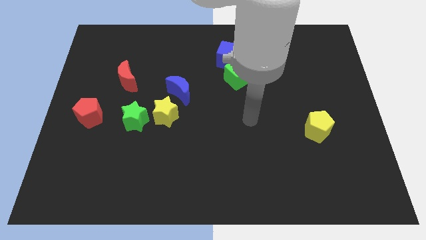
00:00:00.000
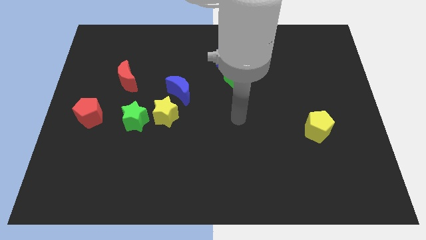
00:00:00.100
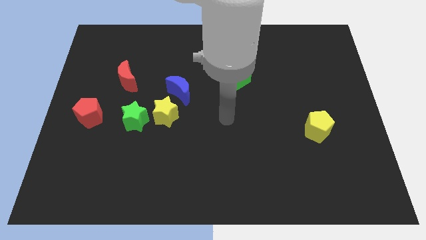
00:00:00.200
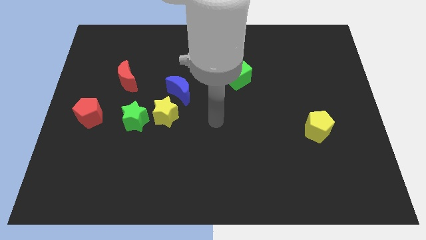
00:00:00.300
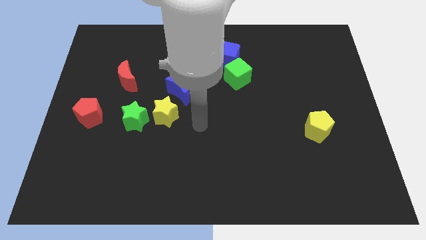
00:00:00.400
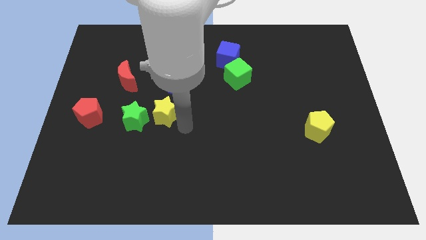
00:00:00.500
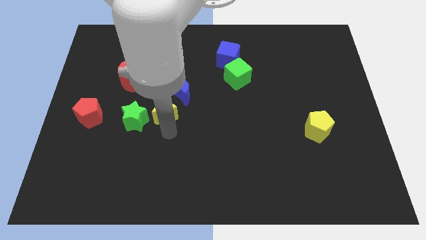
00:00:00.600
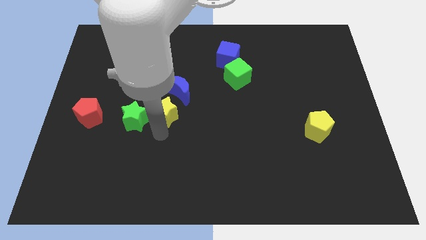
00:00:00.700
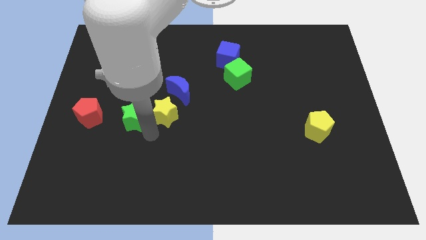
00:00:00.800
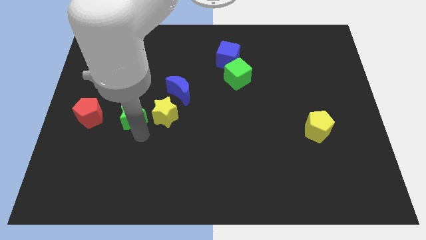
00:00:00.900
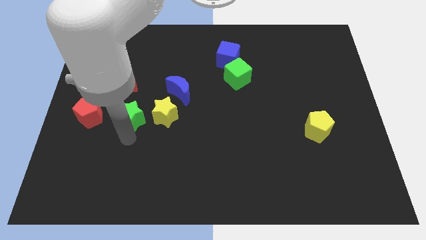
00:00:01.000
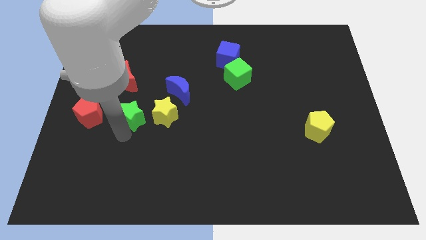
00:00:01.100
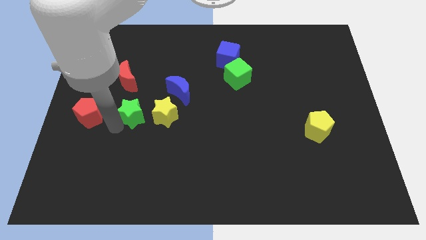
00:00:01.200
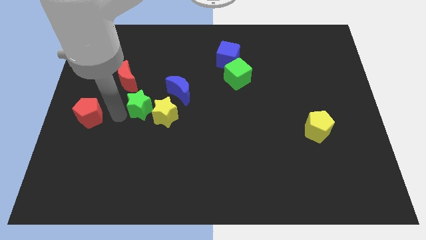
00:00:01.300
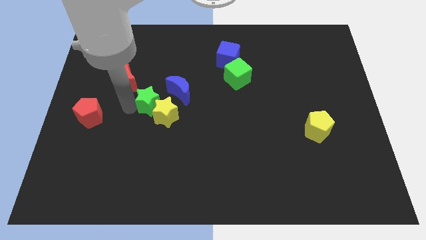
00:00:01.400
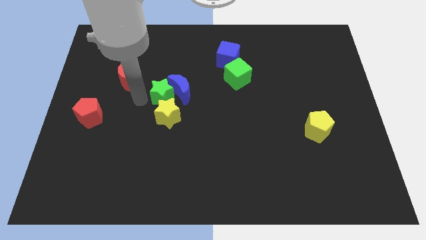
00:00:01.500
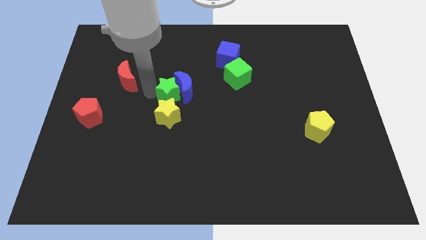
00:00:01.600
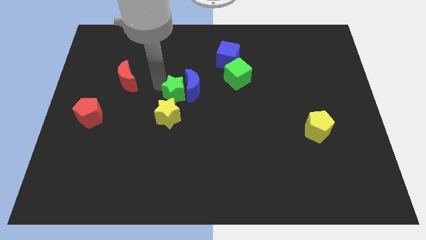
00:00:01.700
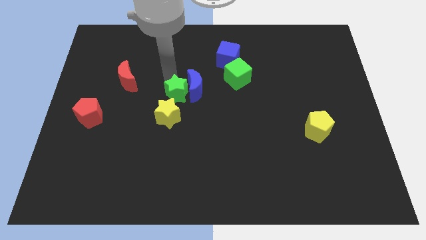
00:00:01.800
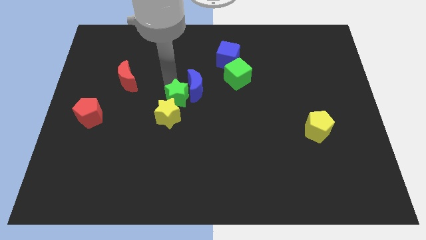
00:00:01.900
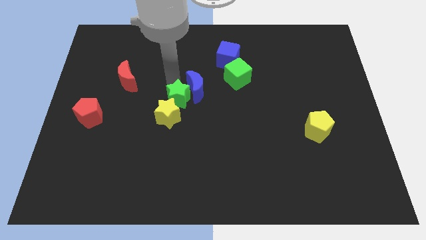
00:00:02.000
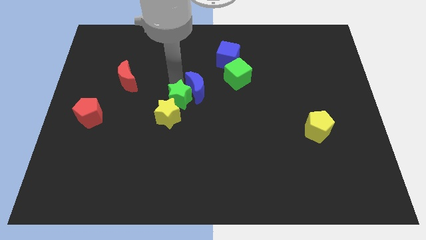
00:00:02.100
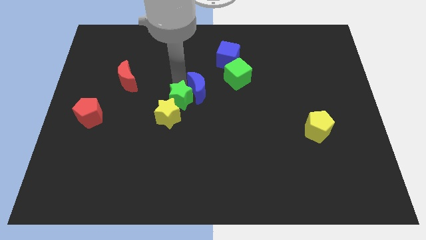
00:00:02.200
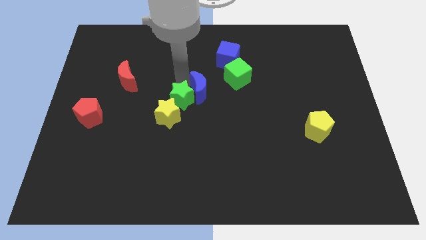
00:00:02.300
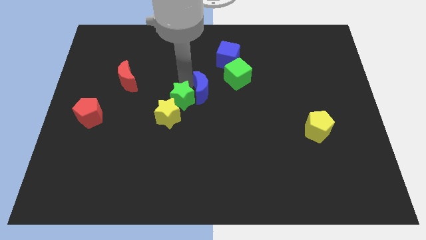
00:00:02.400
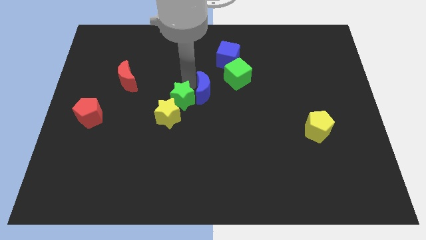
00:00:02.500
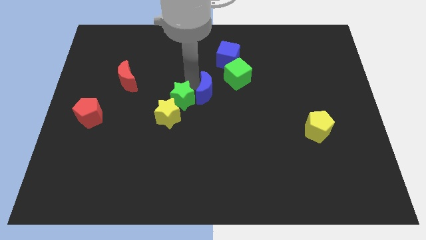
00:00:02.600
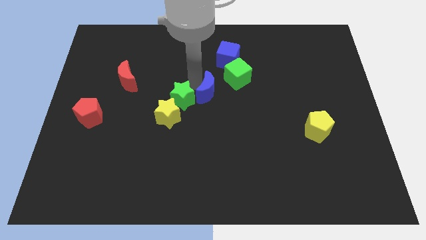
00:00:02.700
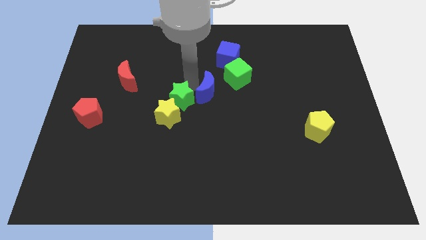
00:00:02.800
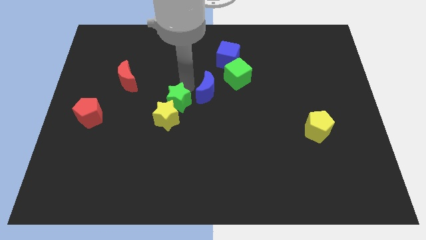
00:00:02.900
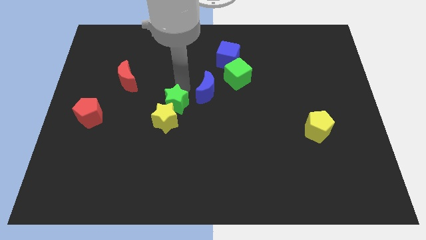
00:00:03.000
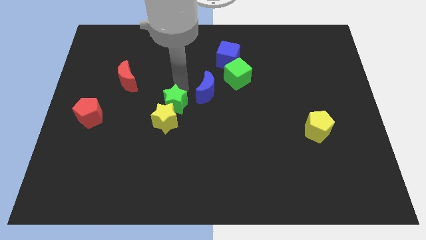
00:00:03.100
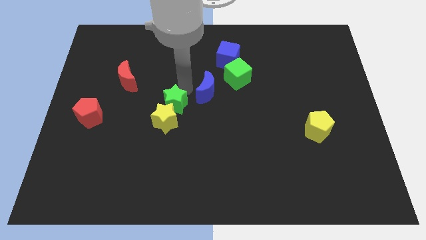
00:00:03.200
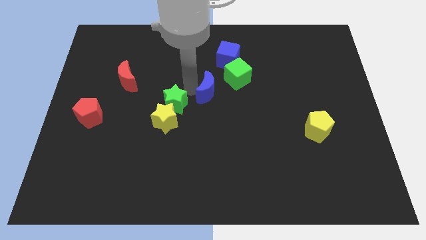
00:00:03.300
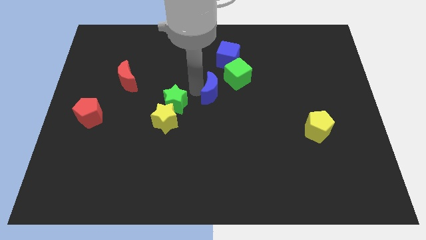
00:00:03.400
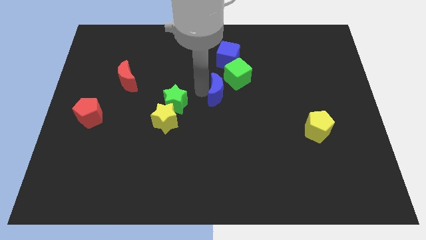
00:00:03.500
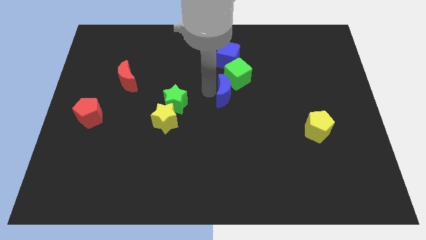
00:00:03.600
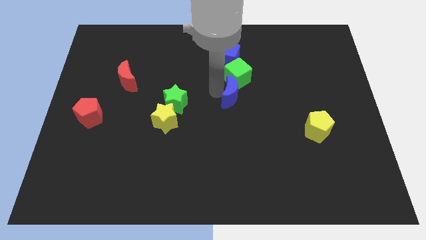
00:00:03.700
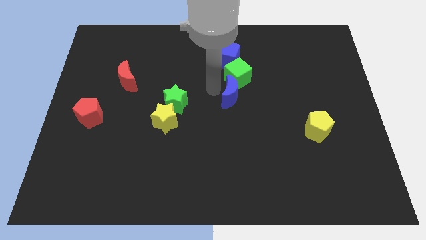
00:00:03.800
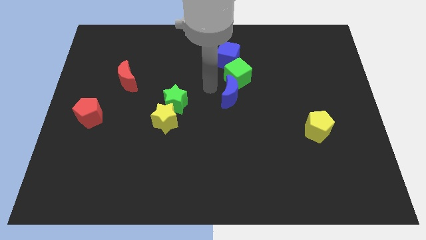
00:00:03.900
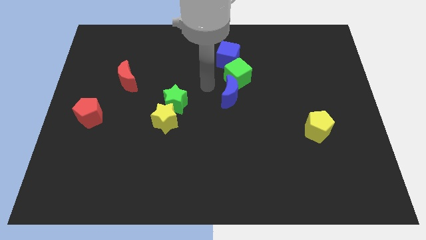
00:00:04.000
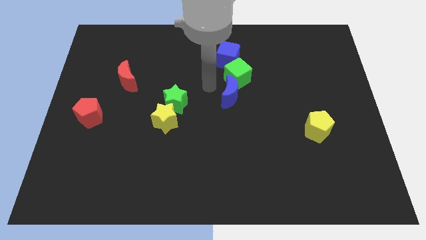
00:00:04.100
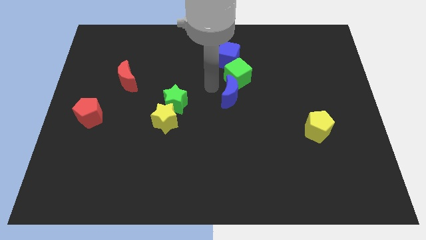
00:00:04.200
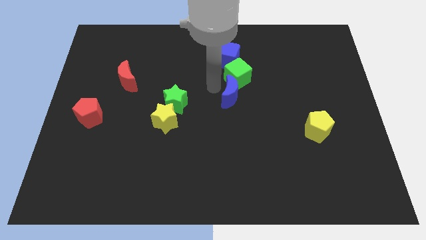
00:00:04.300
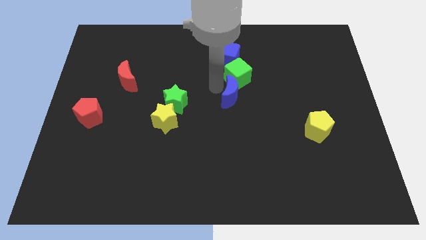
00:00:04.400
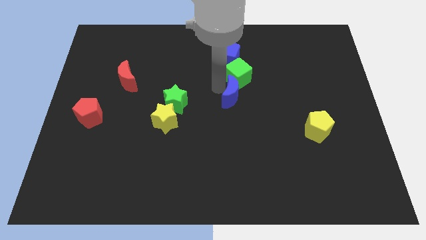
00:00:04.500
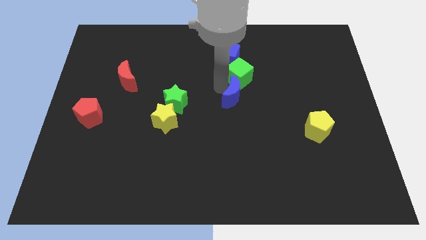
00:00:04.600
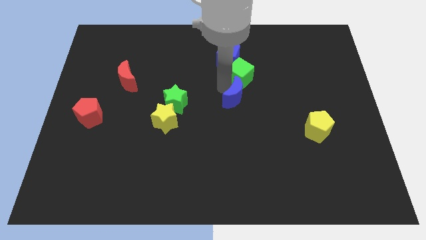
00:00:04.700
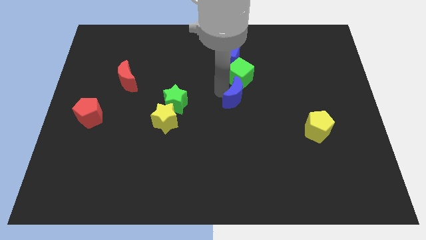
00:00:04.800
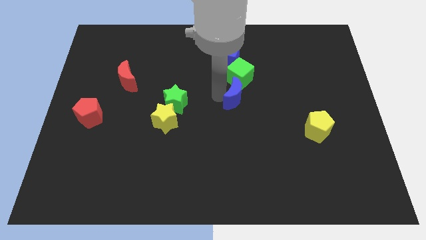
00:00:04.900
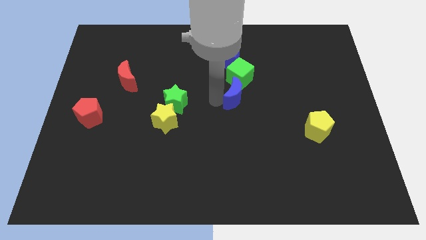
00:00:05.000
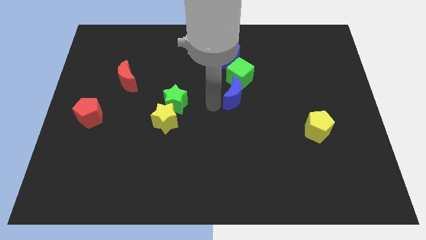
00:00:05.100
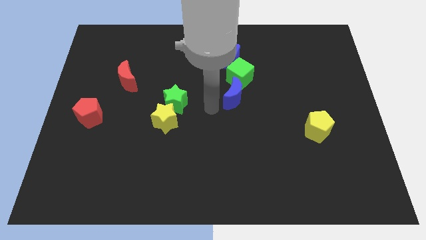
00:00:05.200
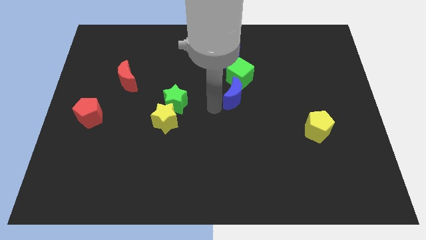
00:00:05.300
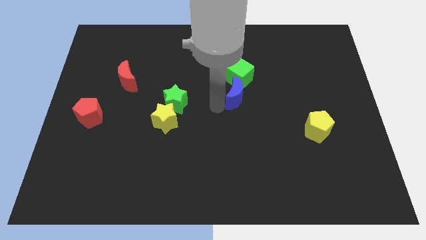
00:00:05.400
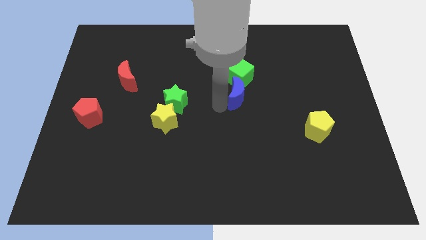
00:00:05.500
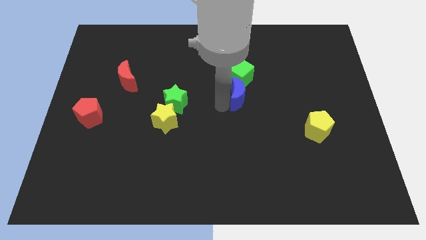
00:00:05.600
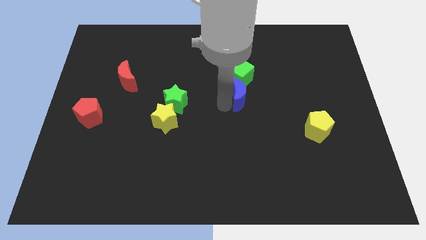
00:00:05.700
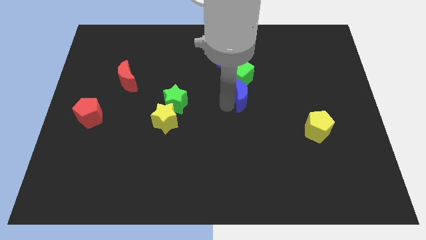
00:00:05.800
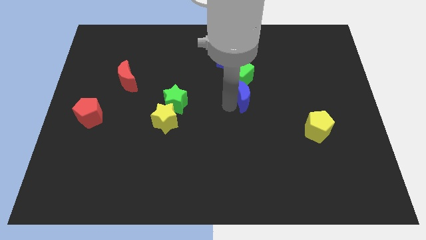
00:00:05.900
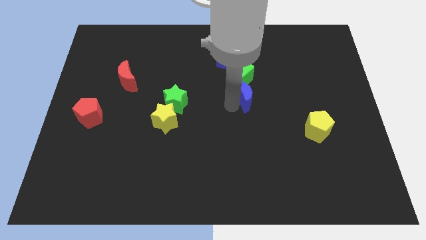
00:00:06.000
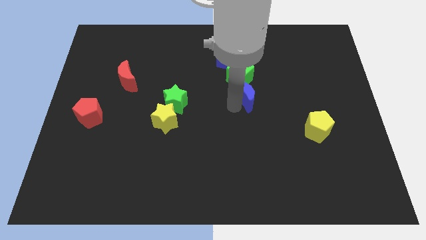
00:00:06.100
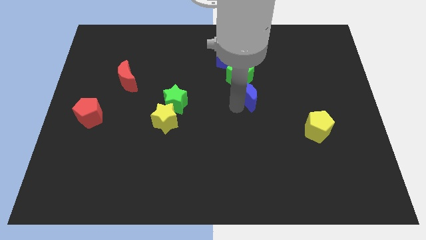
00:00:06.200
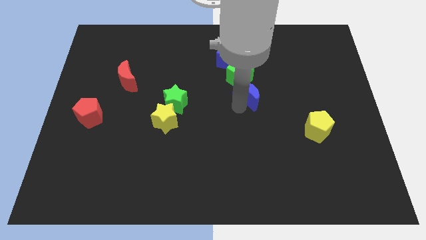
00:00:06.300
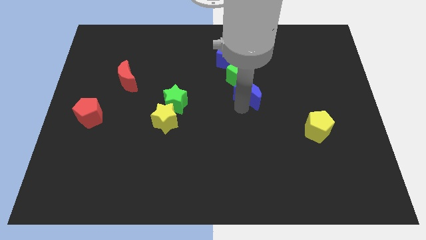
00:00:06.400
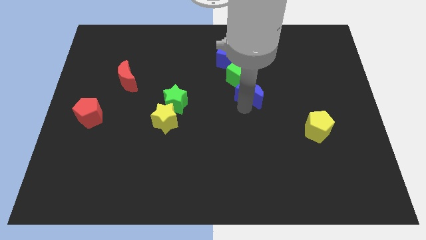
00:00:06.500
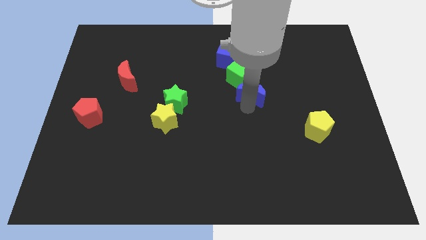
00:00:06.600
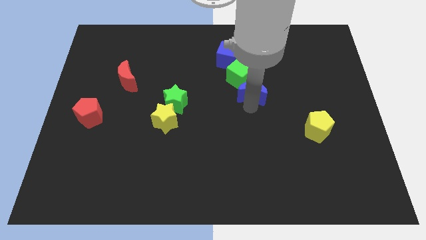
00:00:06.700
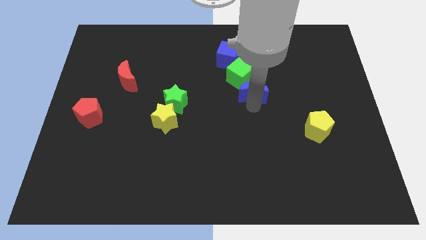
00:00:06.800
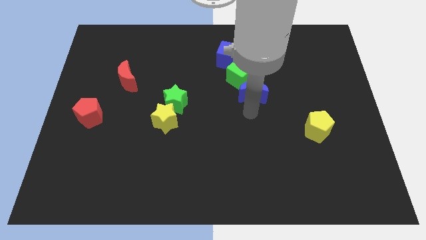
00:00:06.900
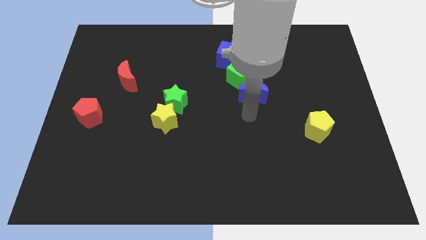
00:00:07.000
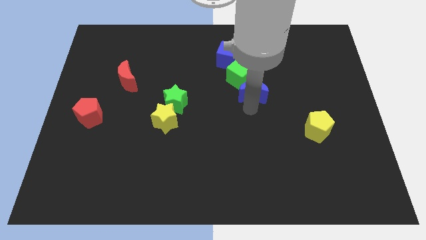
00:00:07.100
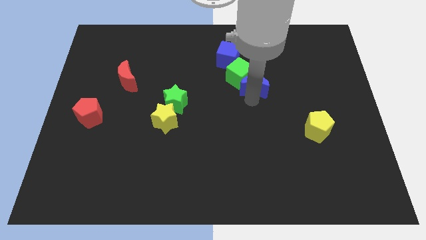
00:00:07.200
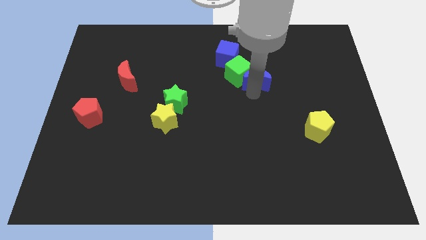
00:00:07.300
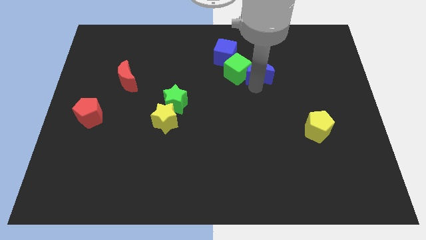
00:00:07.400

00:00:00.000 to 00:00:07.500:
slide the blue moon diagonally up and to the right of the green cube
